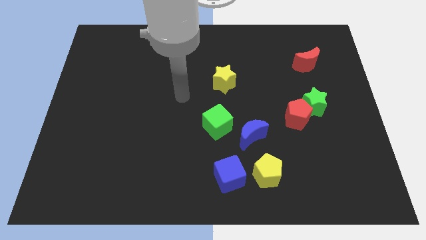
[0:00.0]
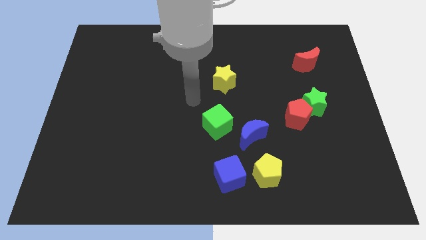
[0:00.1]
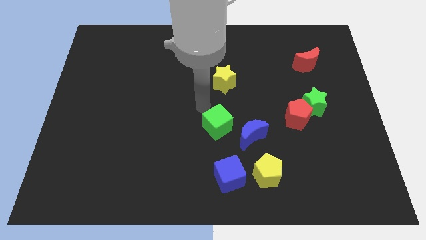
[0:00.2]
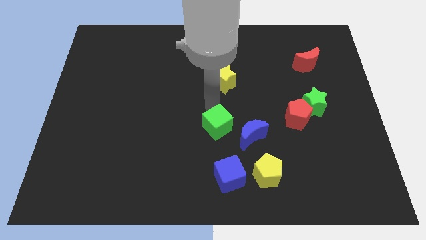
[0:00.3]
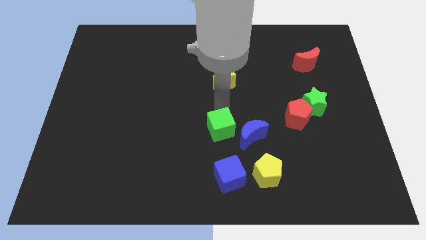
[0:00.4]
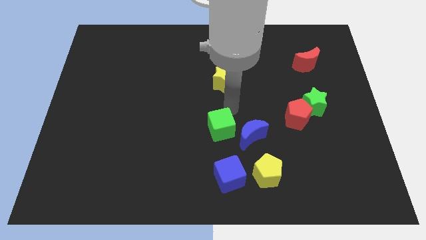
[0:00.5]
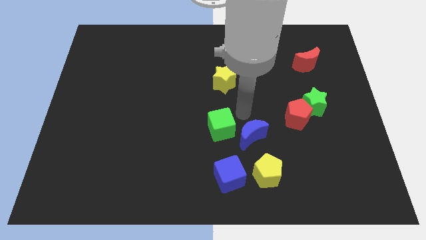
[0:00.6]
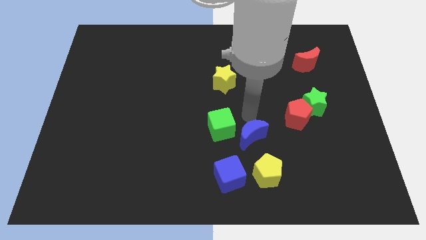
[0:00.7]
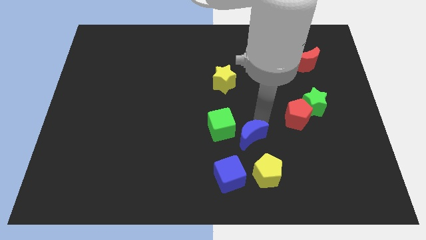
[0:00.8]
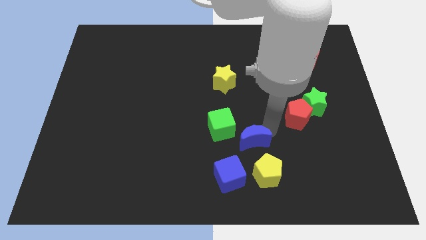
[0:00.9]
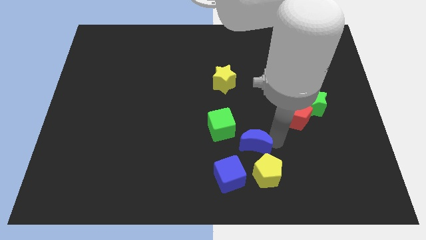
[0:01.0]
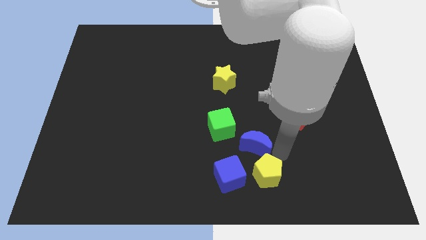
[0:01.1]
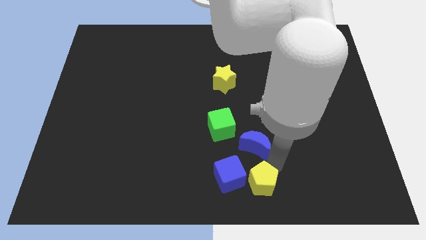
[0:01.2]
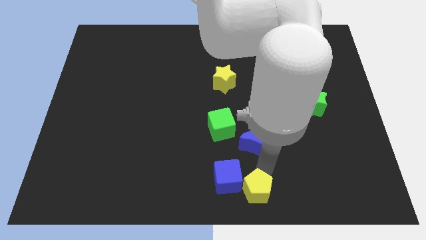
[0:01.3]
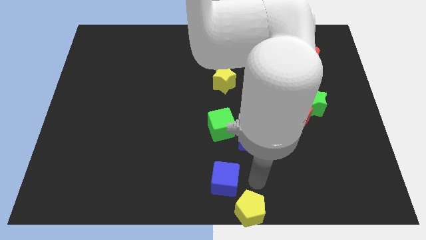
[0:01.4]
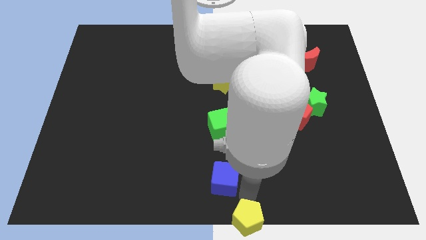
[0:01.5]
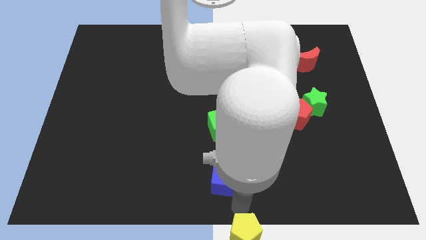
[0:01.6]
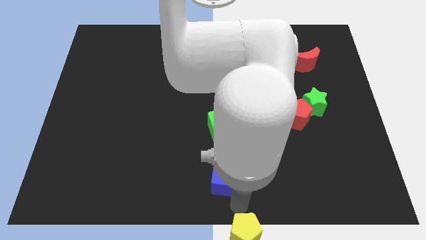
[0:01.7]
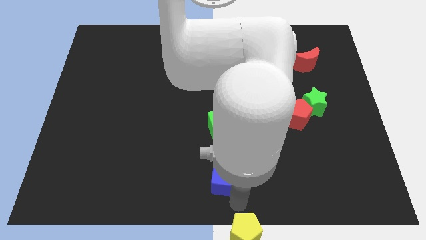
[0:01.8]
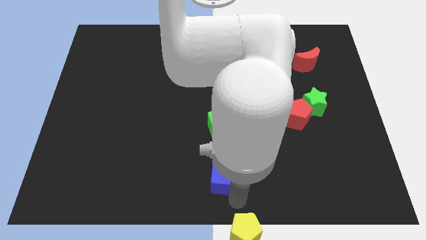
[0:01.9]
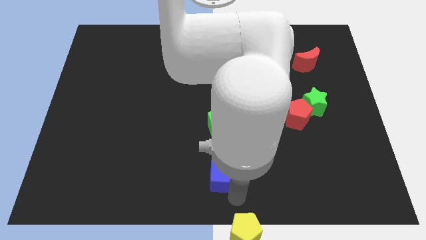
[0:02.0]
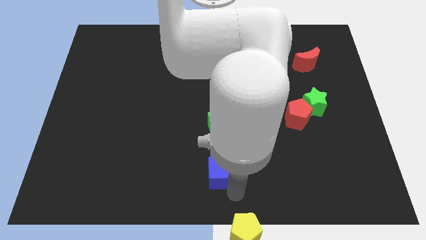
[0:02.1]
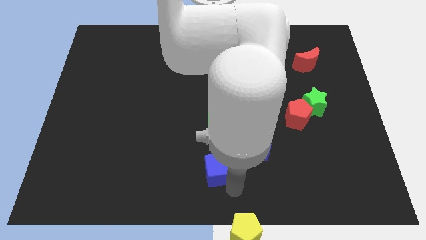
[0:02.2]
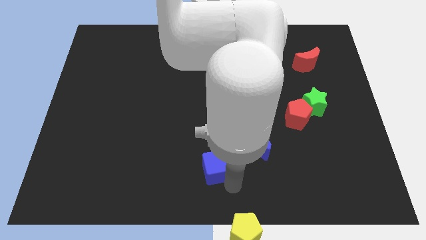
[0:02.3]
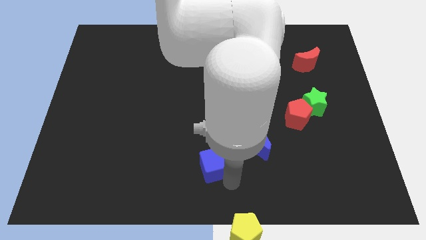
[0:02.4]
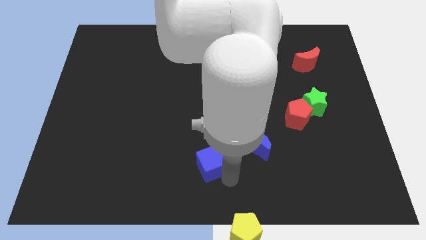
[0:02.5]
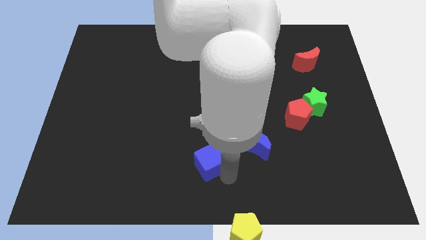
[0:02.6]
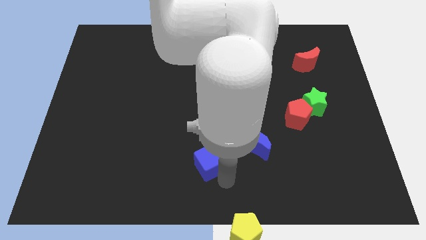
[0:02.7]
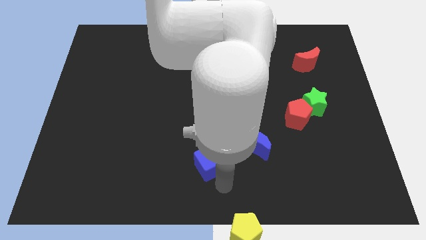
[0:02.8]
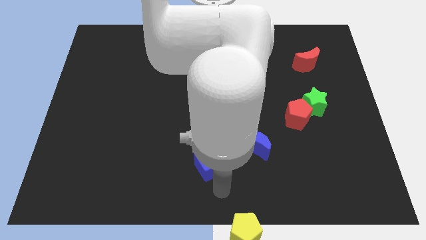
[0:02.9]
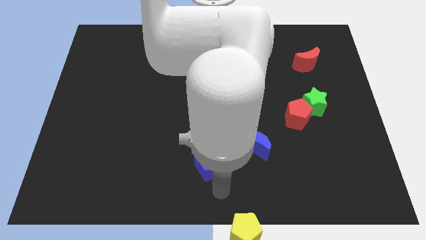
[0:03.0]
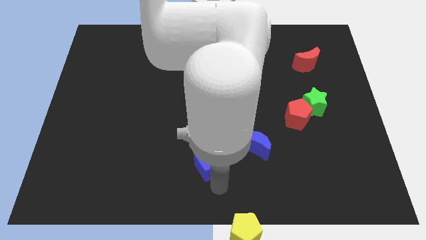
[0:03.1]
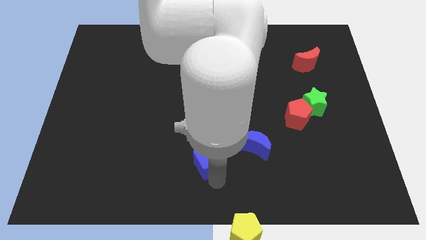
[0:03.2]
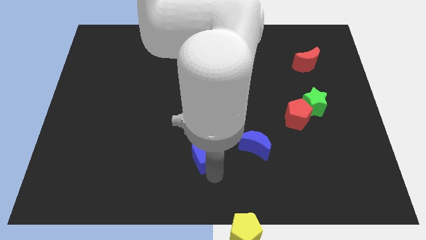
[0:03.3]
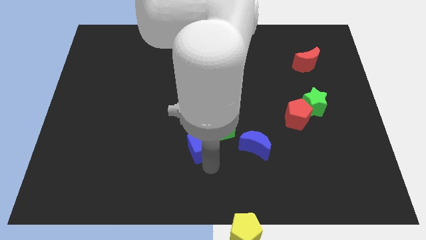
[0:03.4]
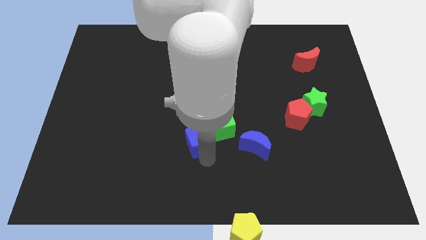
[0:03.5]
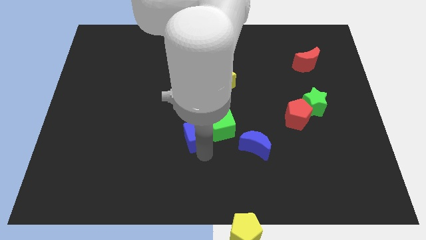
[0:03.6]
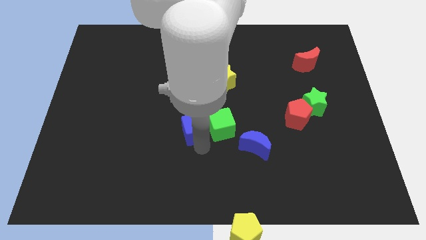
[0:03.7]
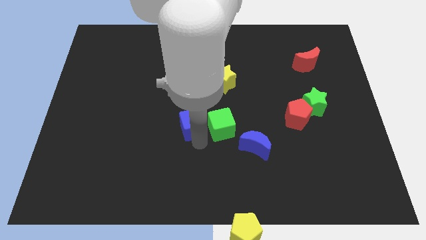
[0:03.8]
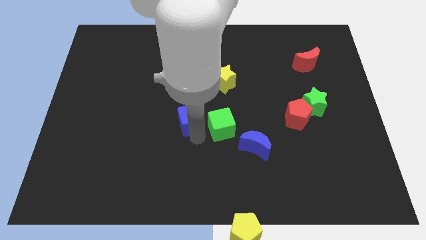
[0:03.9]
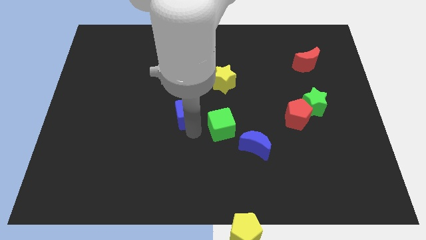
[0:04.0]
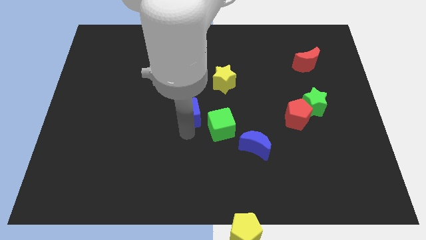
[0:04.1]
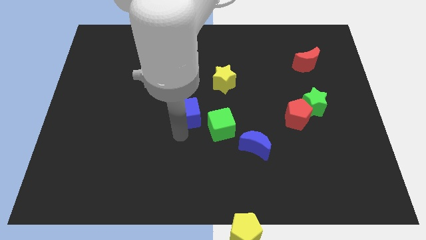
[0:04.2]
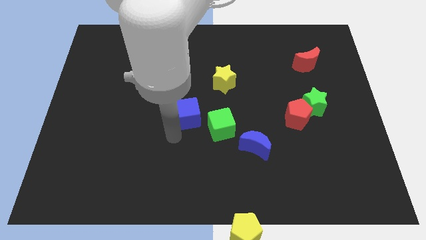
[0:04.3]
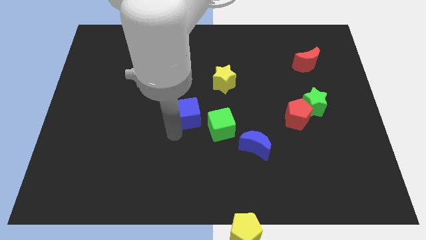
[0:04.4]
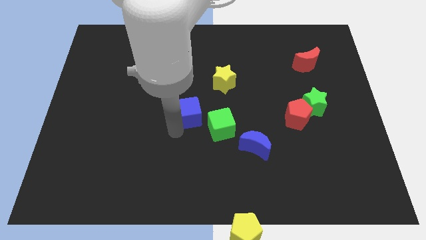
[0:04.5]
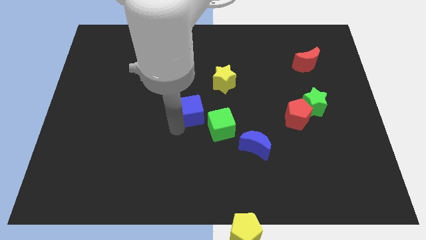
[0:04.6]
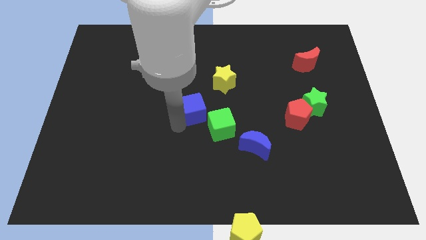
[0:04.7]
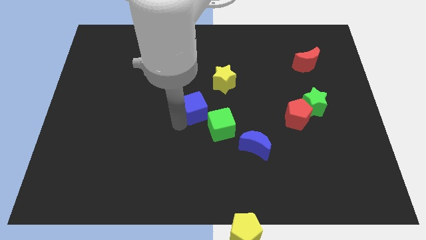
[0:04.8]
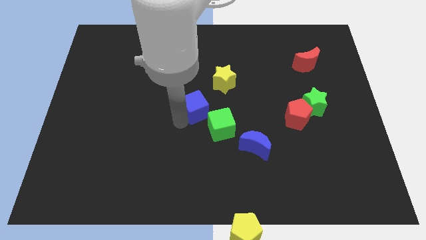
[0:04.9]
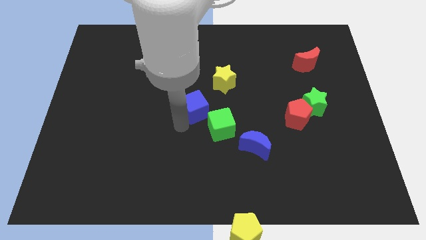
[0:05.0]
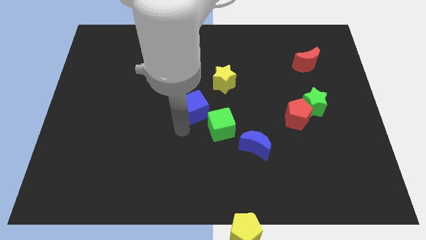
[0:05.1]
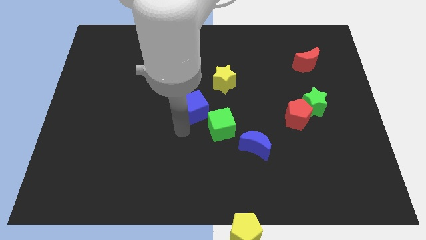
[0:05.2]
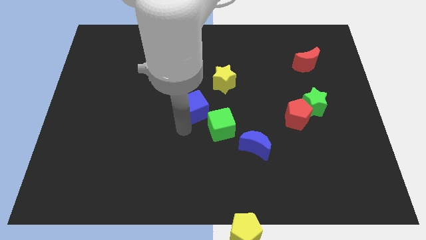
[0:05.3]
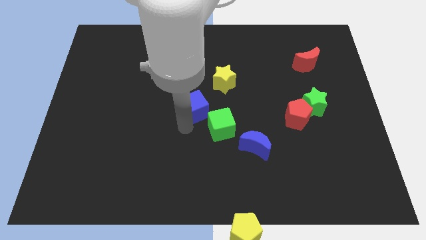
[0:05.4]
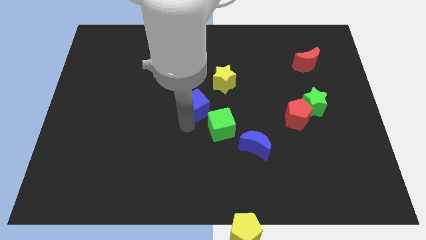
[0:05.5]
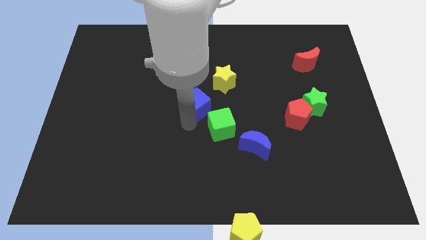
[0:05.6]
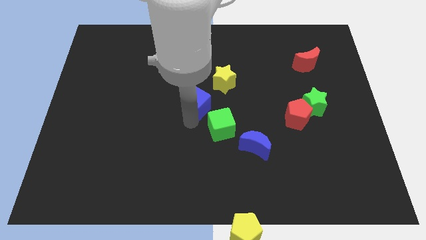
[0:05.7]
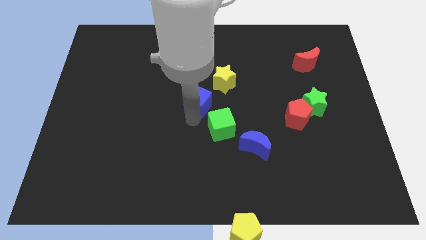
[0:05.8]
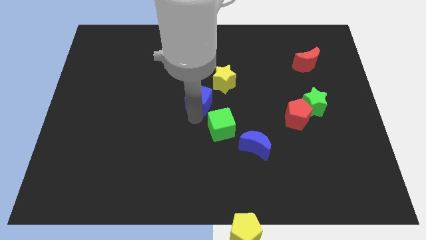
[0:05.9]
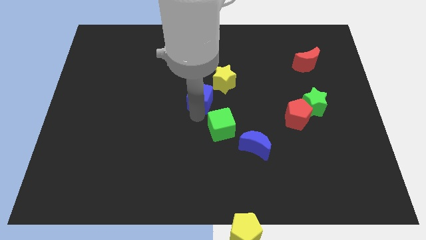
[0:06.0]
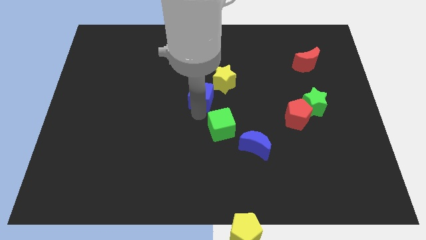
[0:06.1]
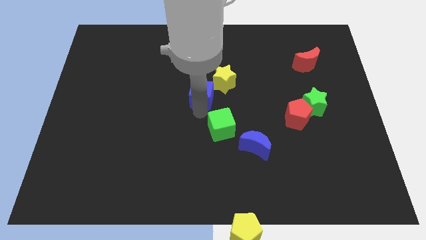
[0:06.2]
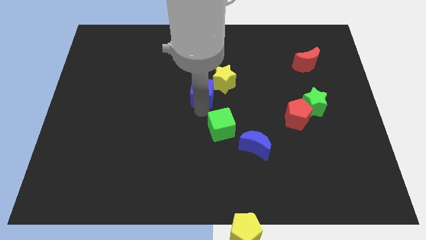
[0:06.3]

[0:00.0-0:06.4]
slide the blue cube up

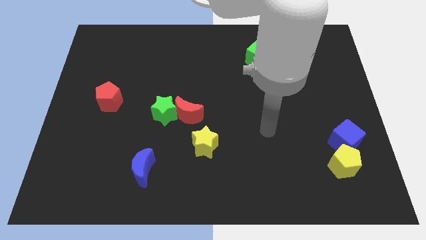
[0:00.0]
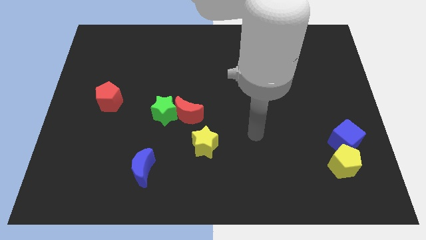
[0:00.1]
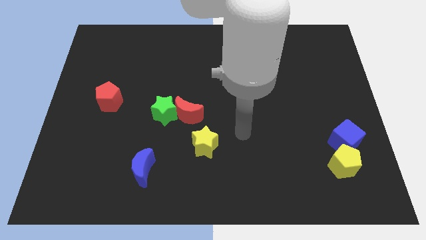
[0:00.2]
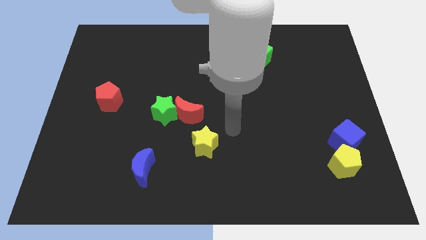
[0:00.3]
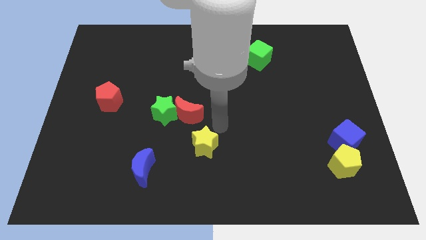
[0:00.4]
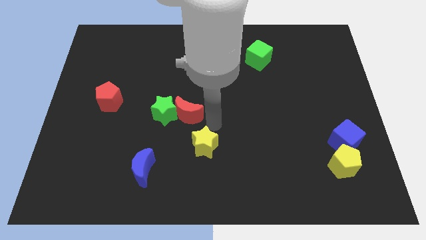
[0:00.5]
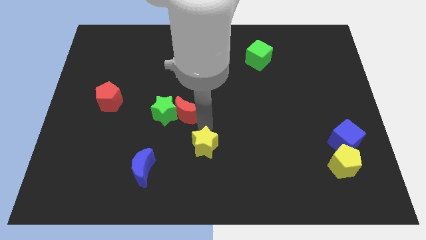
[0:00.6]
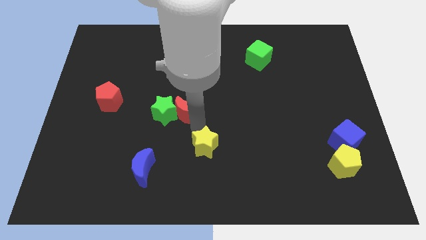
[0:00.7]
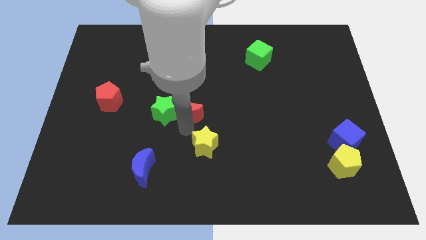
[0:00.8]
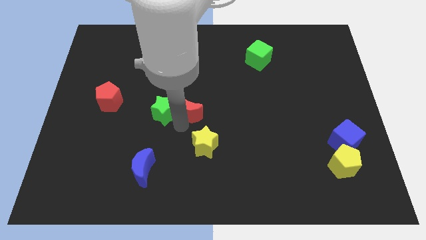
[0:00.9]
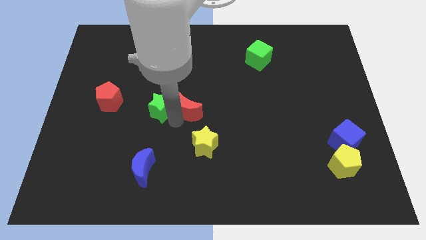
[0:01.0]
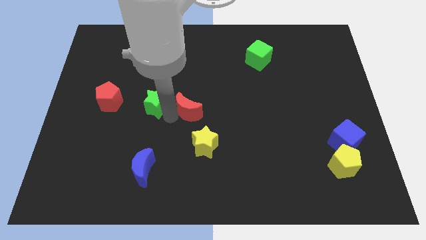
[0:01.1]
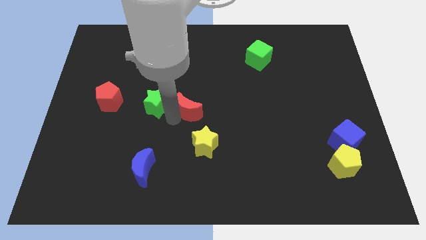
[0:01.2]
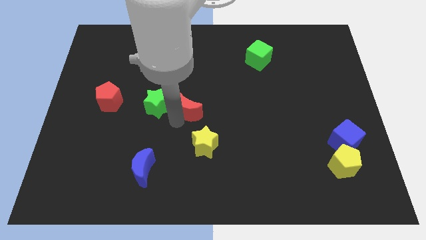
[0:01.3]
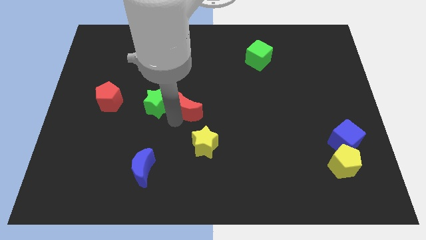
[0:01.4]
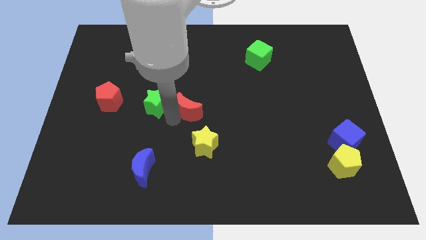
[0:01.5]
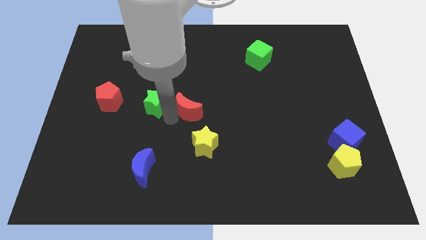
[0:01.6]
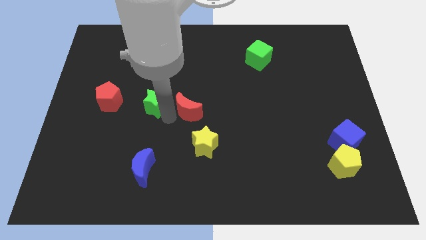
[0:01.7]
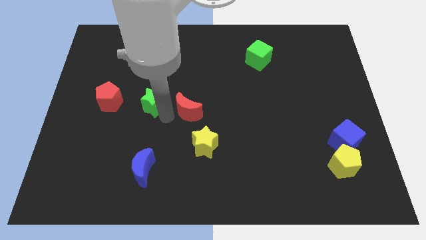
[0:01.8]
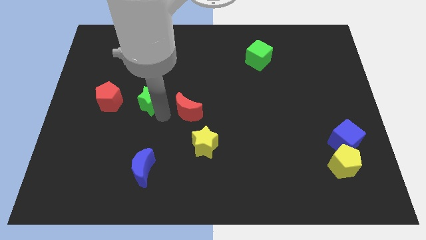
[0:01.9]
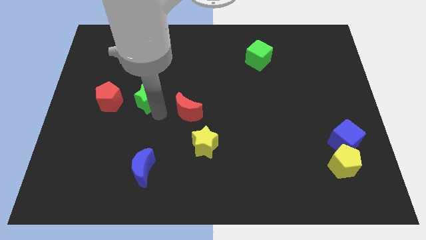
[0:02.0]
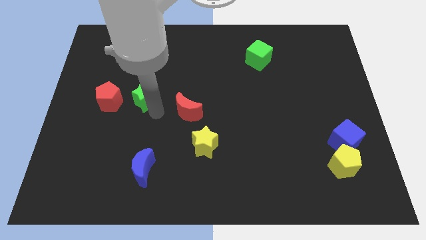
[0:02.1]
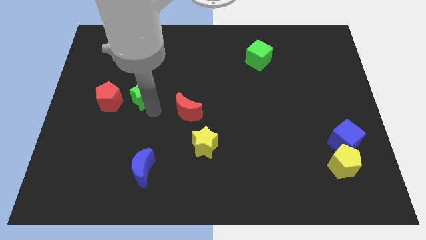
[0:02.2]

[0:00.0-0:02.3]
push the green star slightly upwards and left
